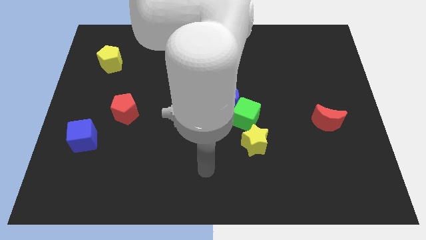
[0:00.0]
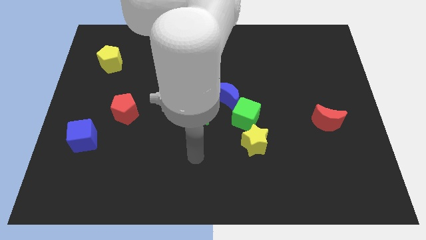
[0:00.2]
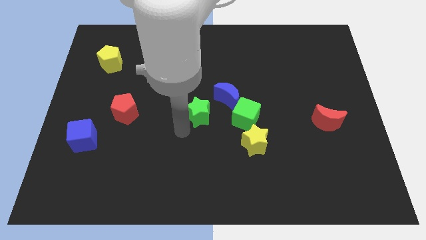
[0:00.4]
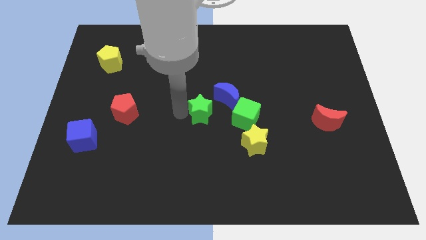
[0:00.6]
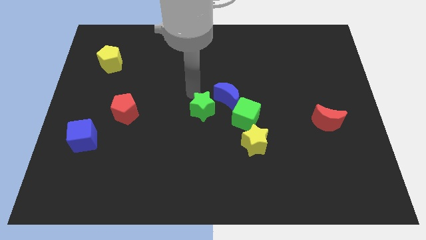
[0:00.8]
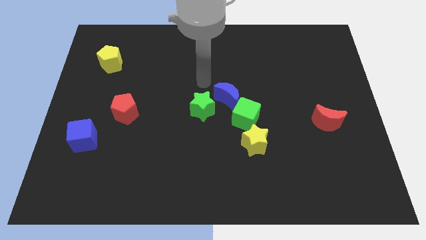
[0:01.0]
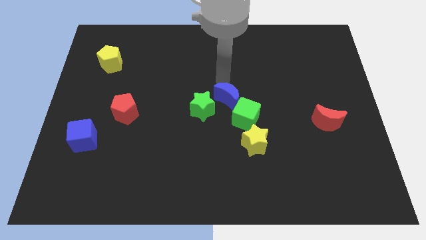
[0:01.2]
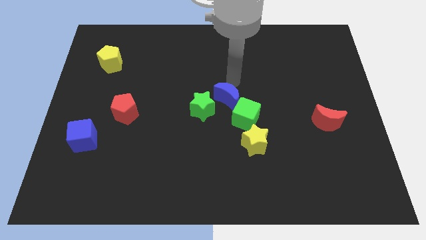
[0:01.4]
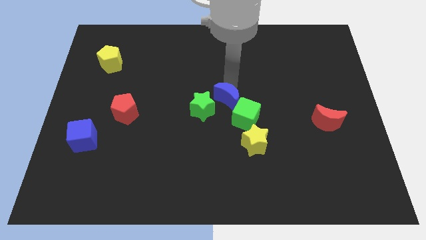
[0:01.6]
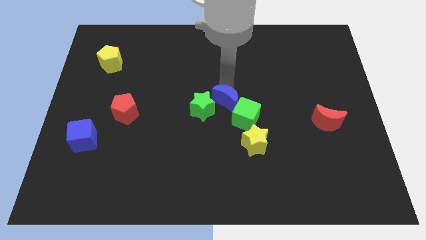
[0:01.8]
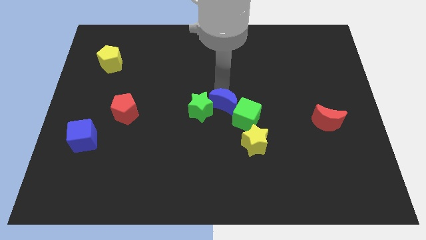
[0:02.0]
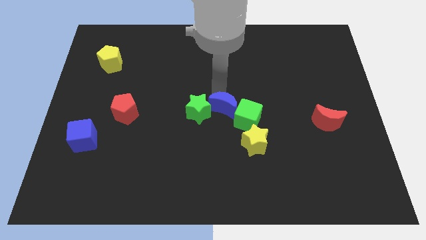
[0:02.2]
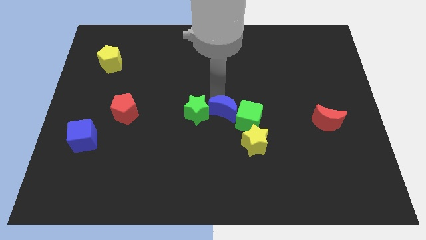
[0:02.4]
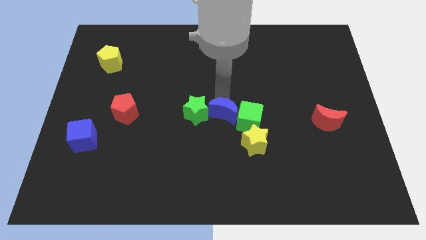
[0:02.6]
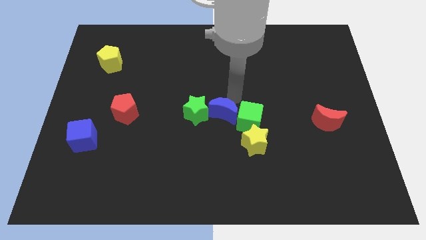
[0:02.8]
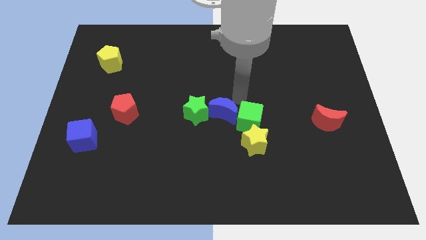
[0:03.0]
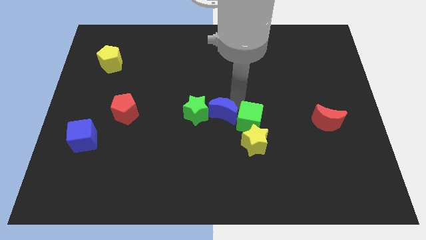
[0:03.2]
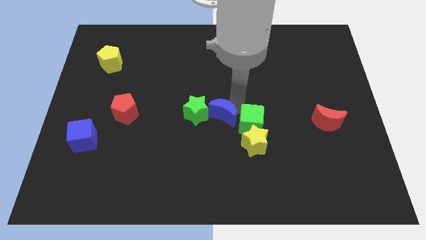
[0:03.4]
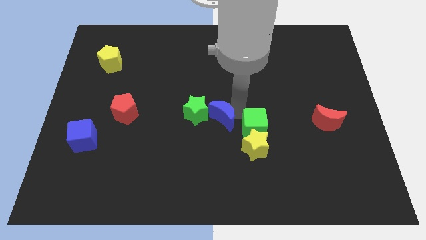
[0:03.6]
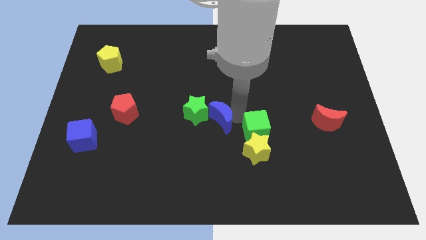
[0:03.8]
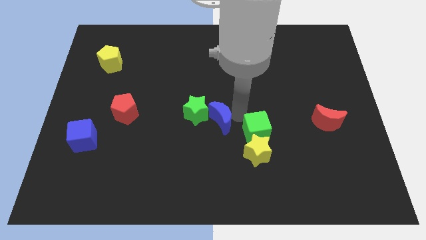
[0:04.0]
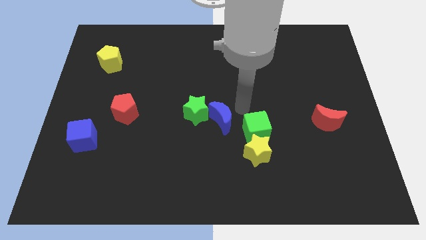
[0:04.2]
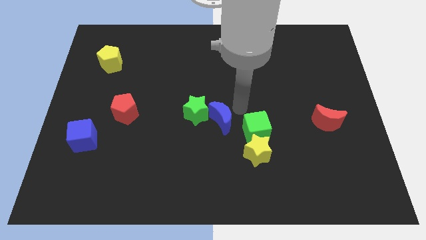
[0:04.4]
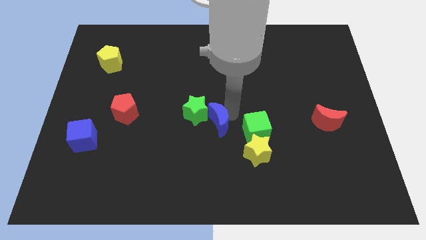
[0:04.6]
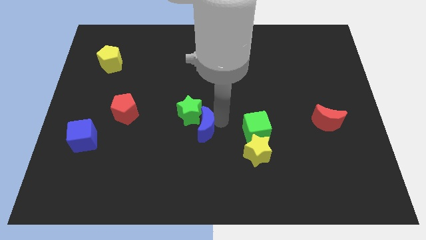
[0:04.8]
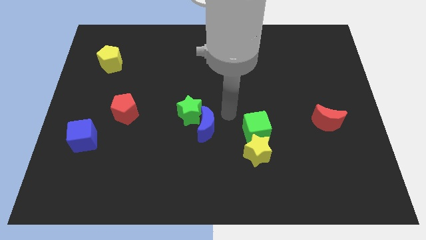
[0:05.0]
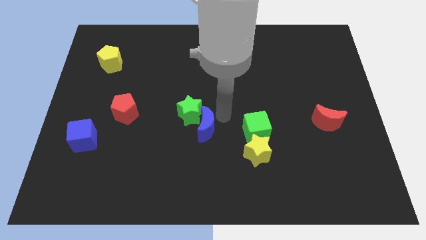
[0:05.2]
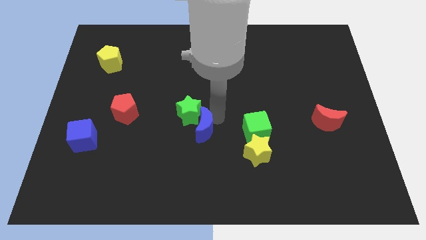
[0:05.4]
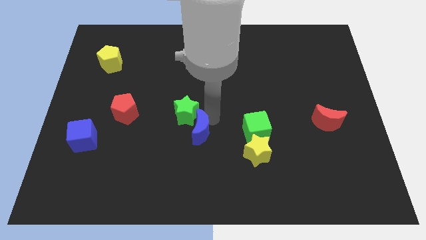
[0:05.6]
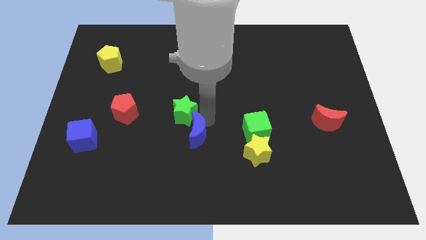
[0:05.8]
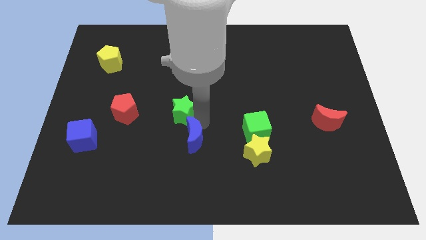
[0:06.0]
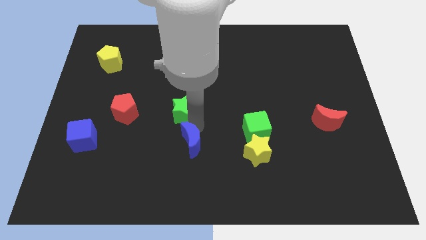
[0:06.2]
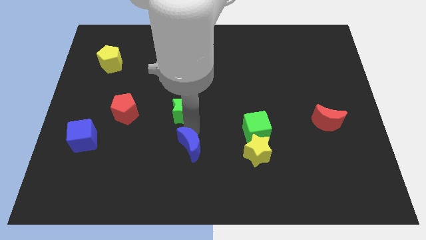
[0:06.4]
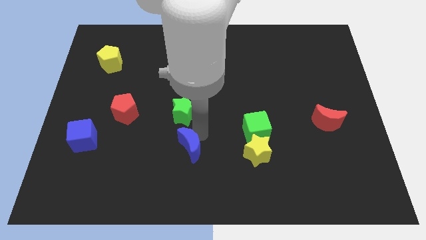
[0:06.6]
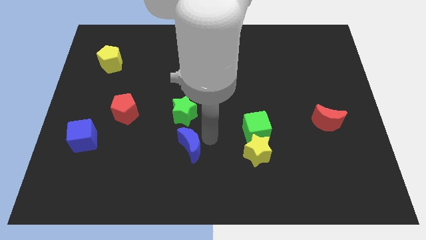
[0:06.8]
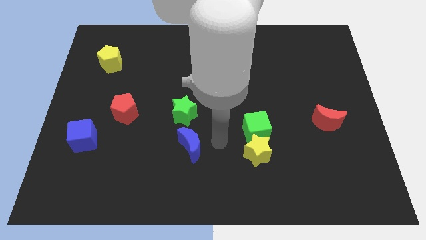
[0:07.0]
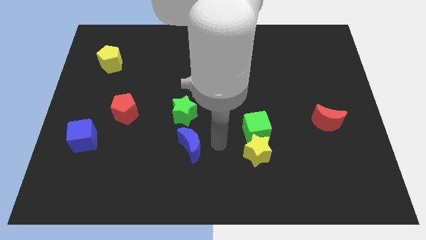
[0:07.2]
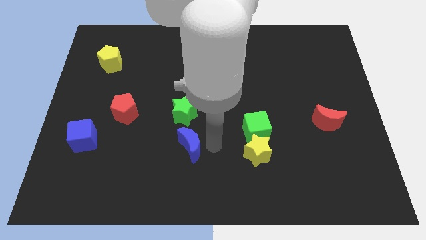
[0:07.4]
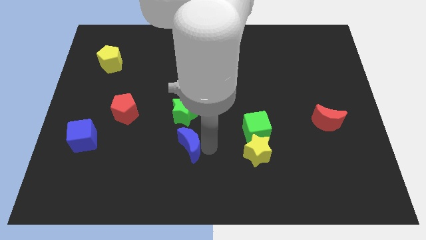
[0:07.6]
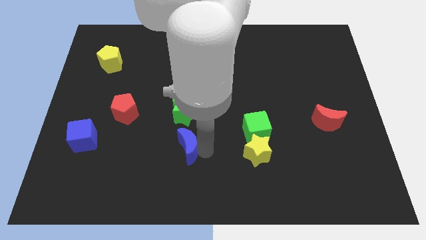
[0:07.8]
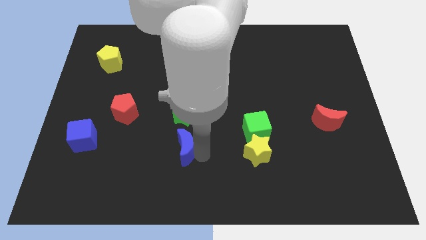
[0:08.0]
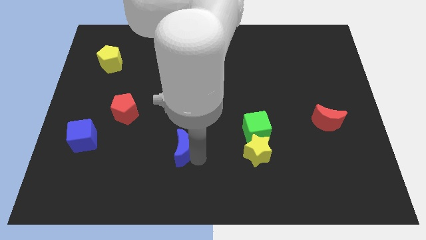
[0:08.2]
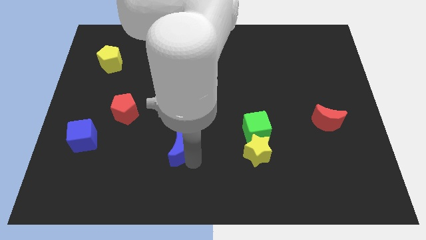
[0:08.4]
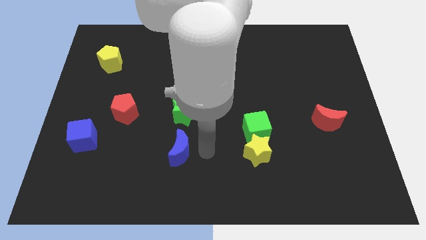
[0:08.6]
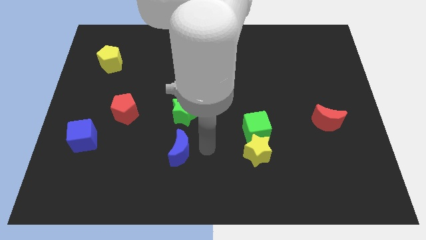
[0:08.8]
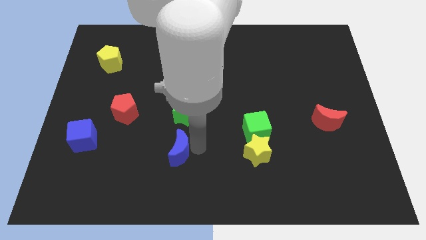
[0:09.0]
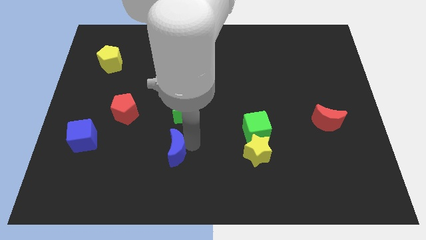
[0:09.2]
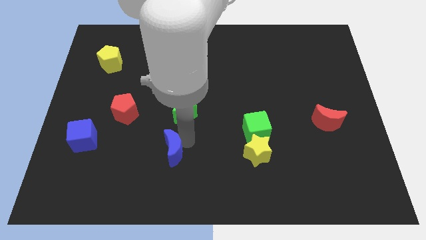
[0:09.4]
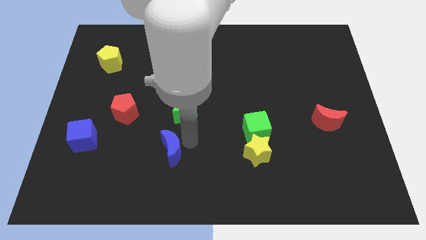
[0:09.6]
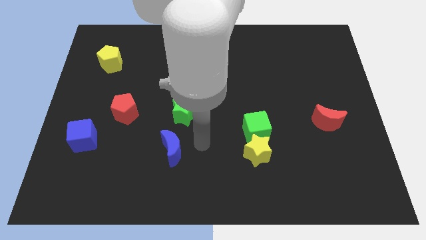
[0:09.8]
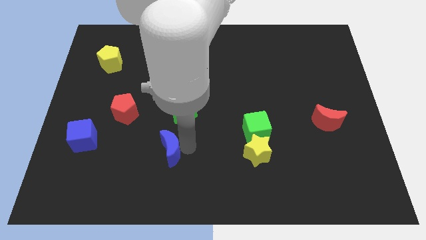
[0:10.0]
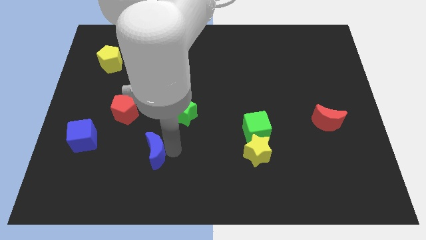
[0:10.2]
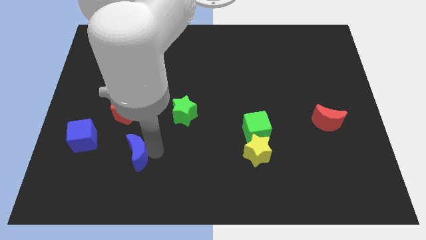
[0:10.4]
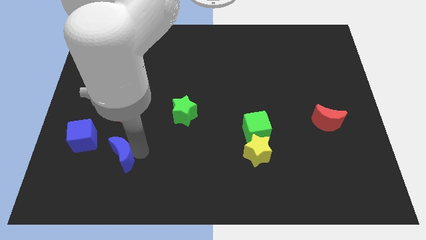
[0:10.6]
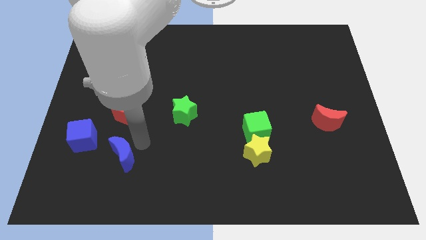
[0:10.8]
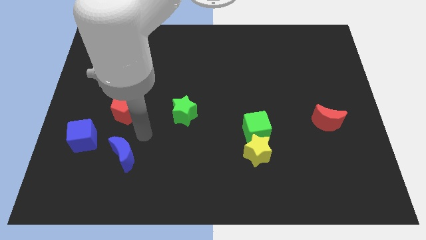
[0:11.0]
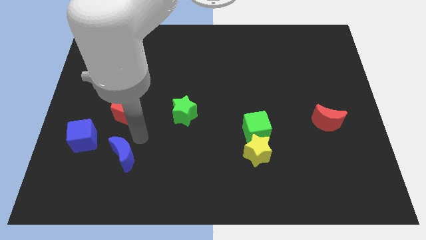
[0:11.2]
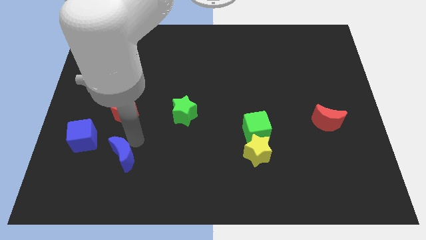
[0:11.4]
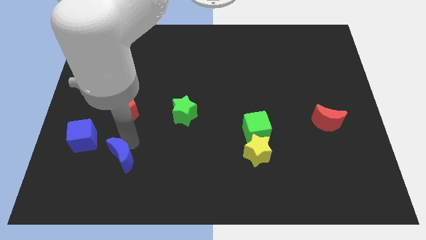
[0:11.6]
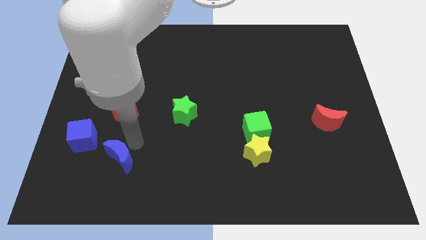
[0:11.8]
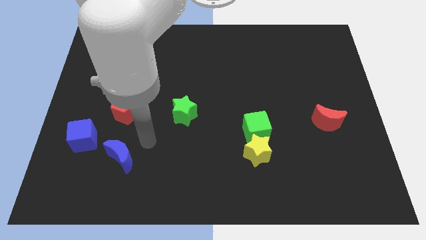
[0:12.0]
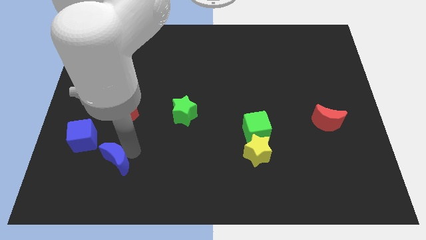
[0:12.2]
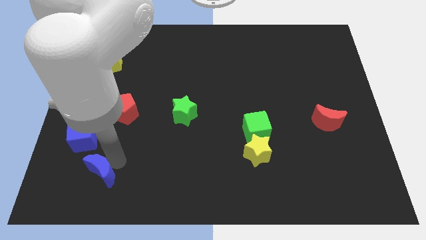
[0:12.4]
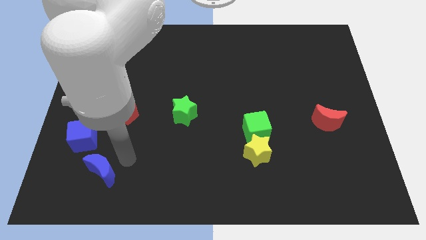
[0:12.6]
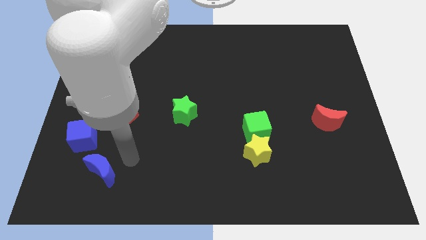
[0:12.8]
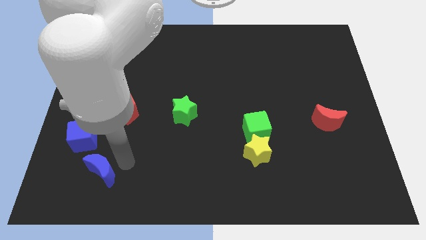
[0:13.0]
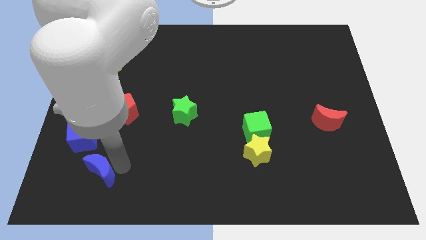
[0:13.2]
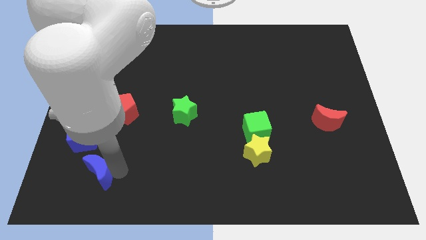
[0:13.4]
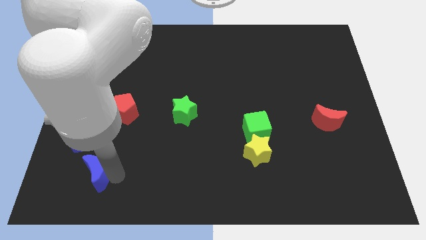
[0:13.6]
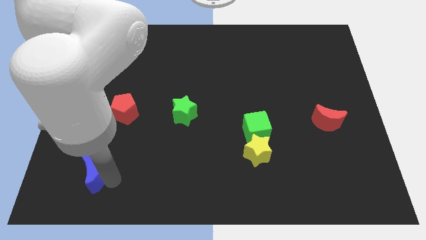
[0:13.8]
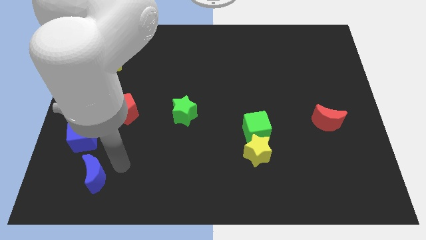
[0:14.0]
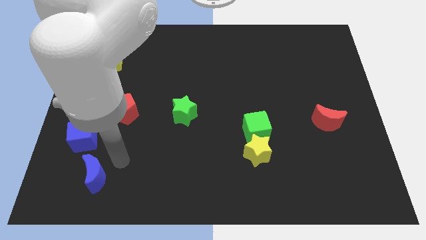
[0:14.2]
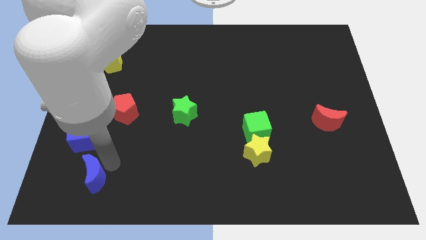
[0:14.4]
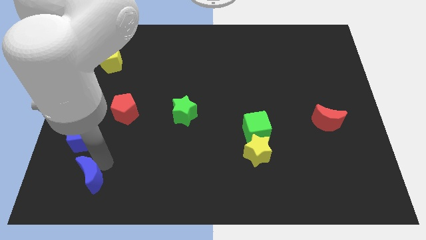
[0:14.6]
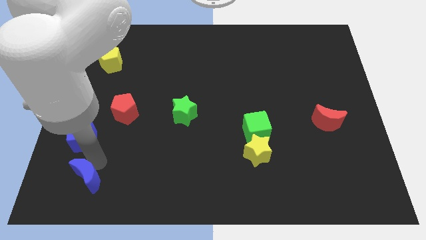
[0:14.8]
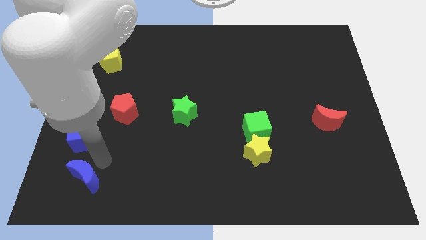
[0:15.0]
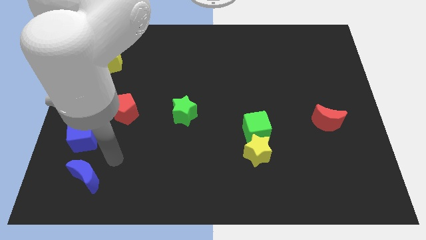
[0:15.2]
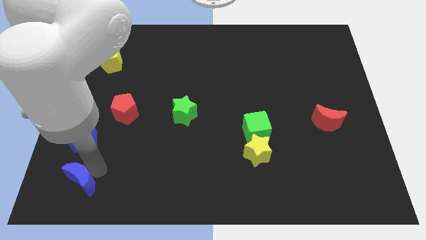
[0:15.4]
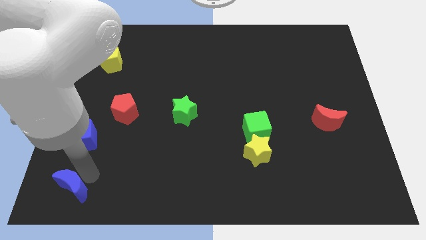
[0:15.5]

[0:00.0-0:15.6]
slide the blue moon to the bottom left
